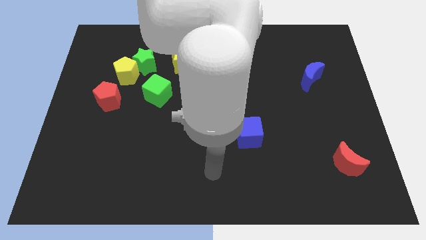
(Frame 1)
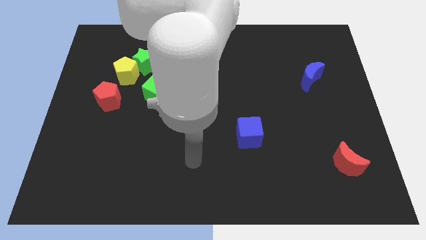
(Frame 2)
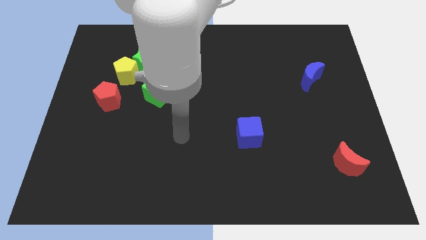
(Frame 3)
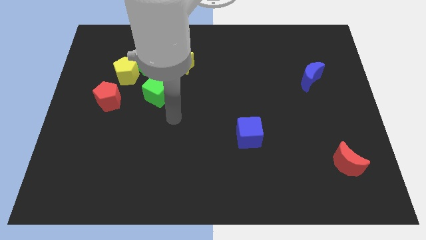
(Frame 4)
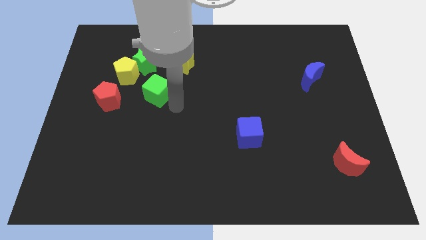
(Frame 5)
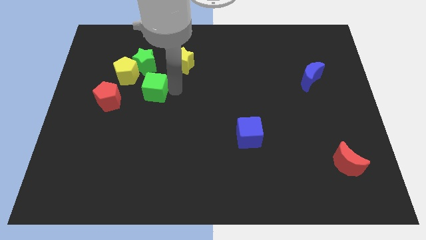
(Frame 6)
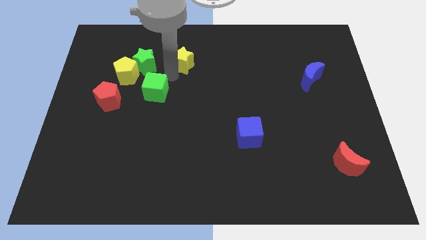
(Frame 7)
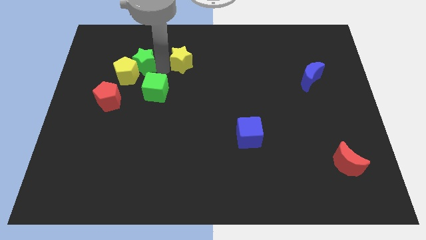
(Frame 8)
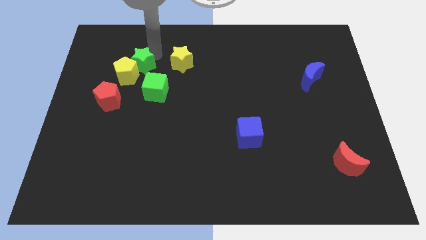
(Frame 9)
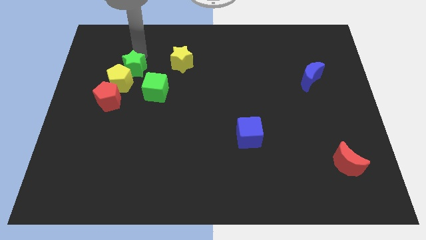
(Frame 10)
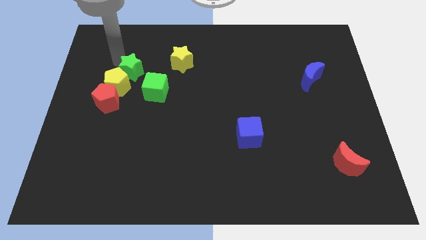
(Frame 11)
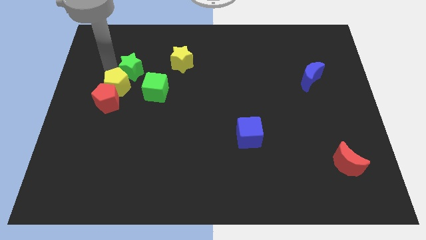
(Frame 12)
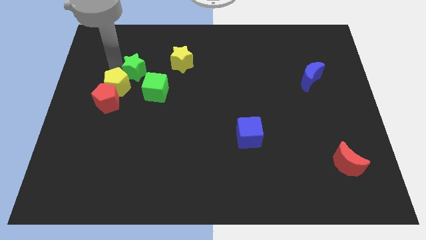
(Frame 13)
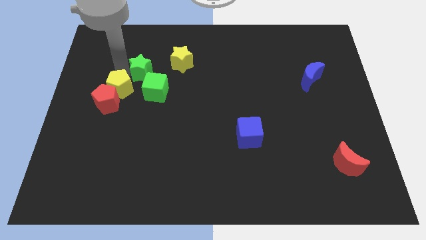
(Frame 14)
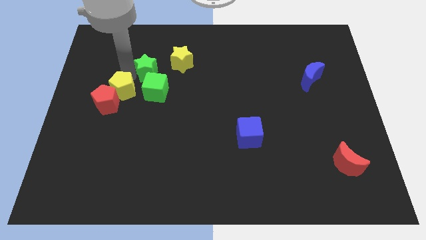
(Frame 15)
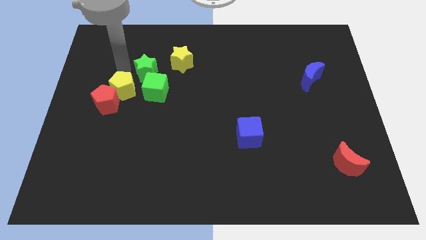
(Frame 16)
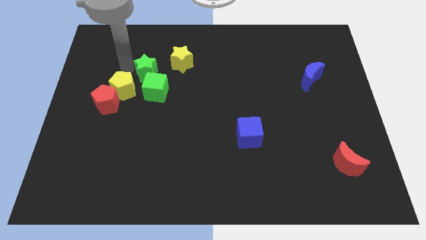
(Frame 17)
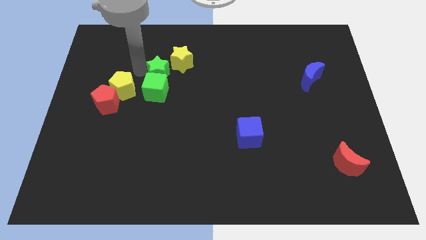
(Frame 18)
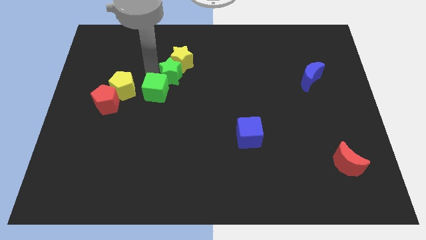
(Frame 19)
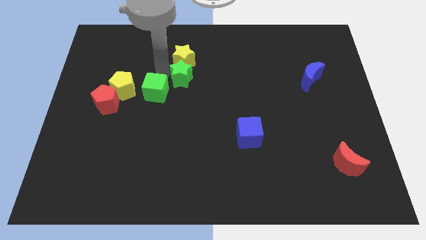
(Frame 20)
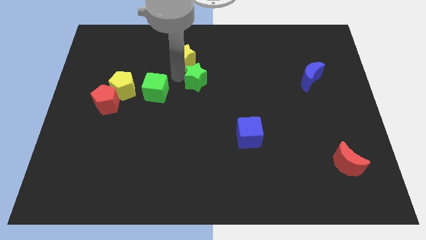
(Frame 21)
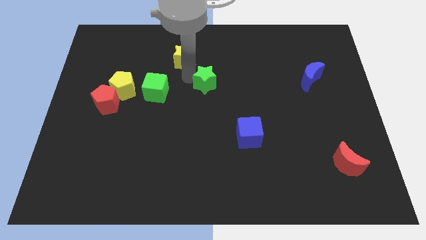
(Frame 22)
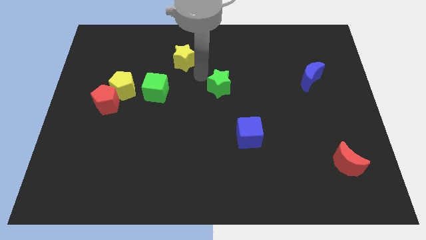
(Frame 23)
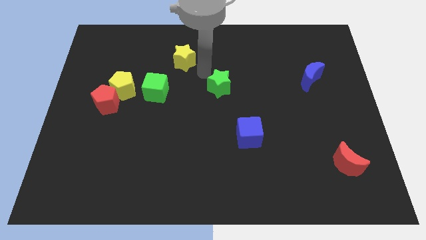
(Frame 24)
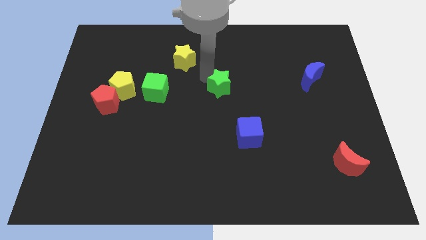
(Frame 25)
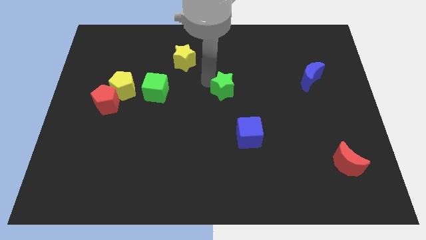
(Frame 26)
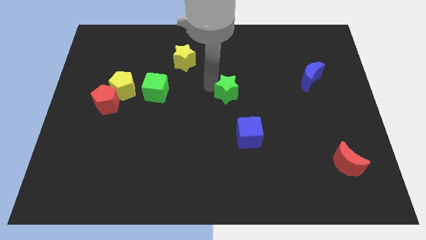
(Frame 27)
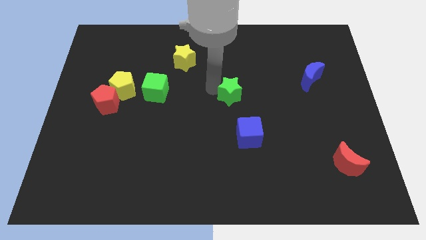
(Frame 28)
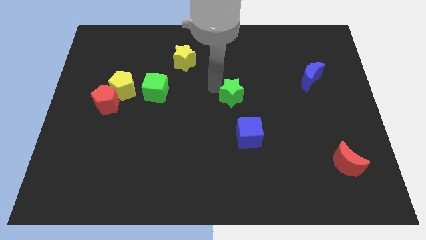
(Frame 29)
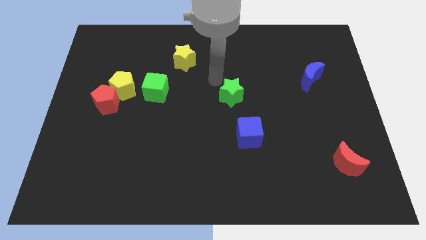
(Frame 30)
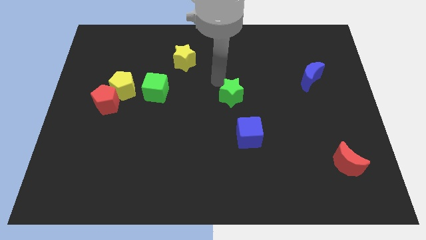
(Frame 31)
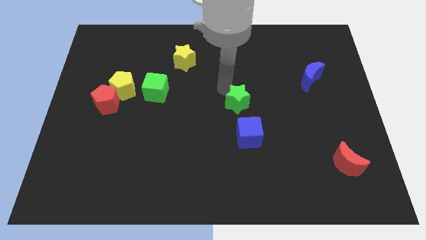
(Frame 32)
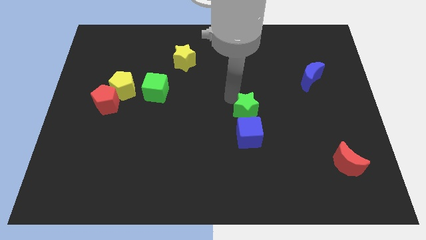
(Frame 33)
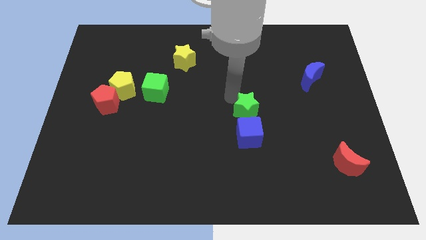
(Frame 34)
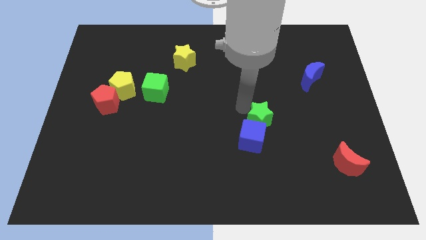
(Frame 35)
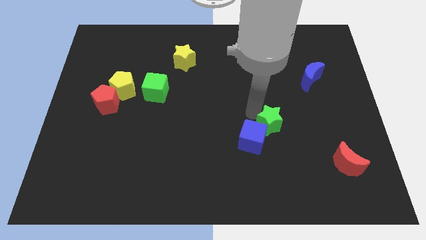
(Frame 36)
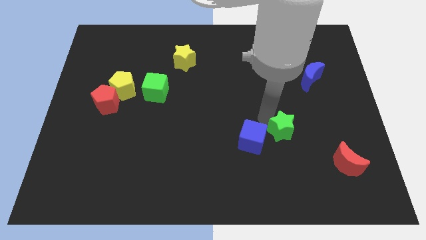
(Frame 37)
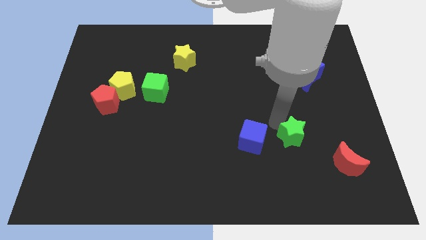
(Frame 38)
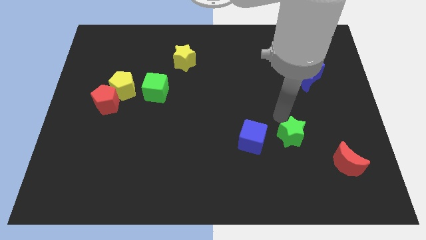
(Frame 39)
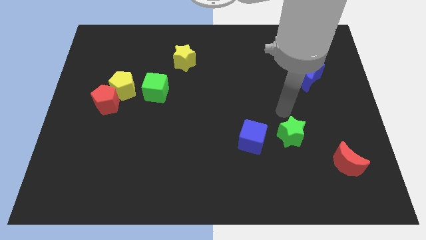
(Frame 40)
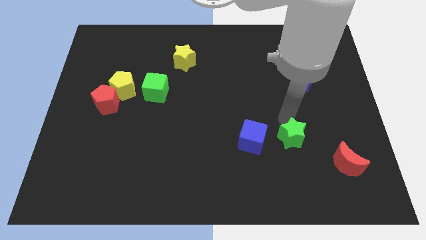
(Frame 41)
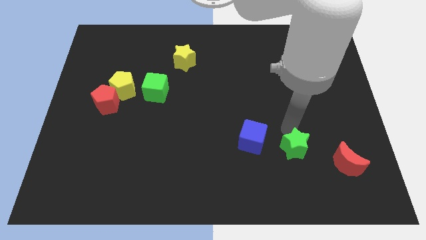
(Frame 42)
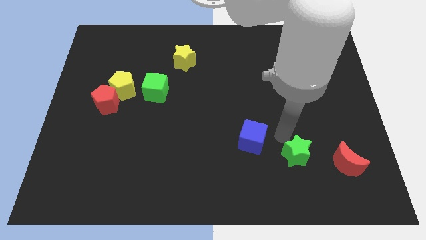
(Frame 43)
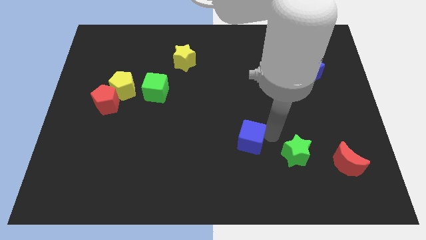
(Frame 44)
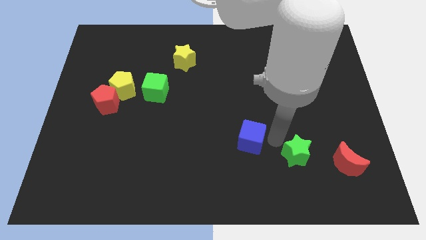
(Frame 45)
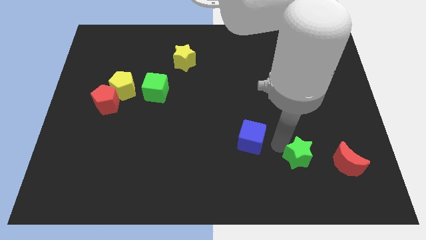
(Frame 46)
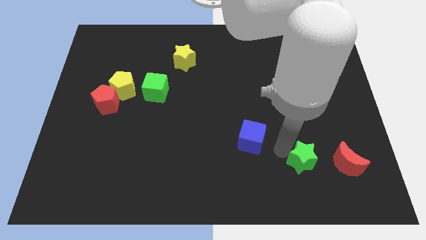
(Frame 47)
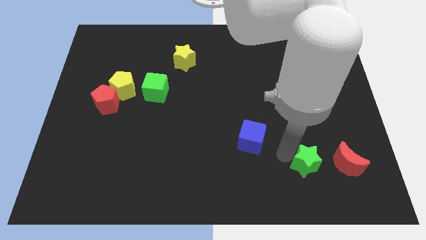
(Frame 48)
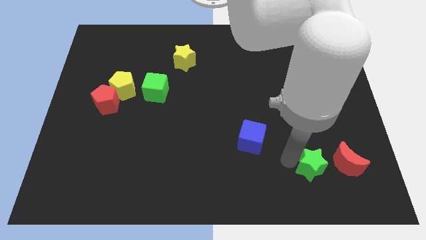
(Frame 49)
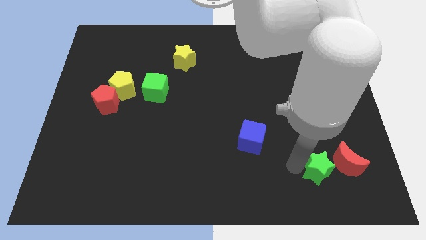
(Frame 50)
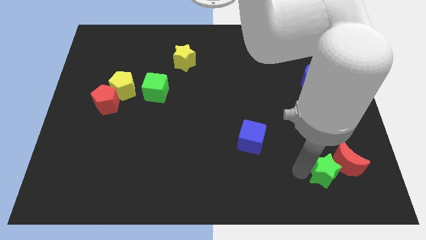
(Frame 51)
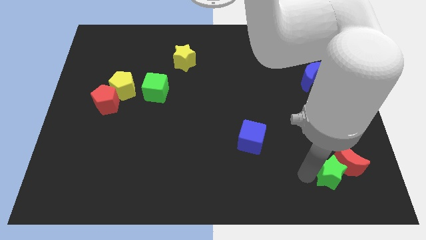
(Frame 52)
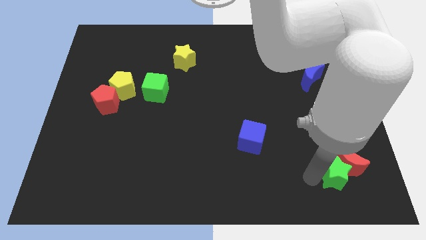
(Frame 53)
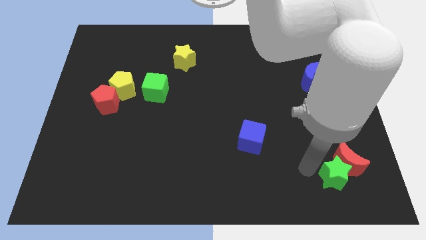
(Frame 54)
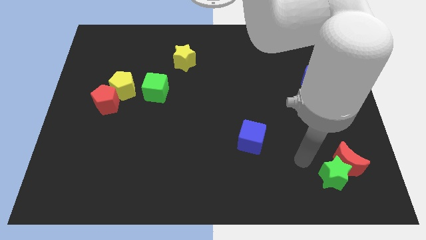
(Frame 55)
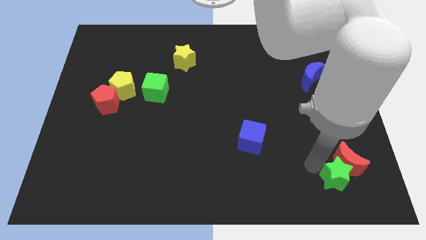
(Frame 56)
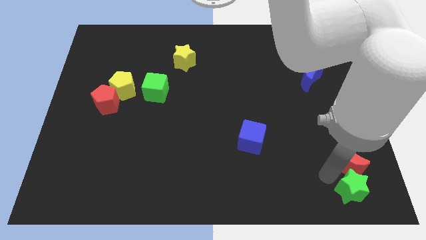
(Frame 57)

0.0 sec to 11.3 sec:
move the green star to the bottom right

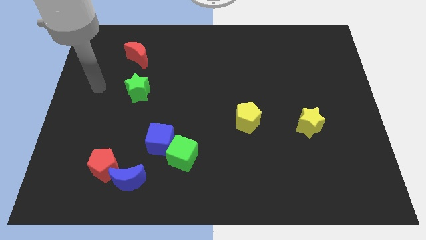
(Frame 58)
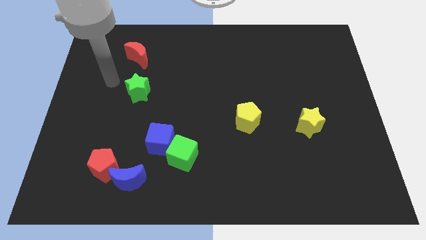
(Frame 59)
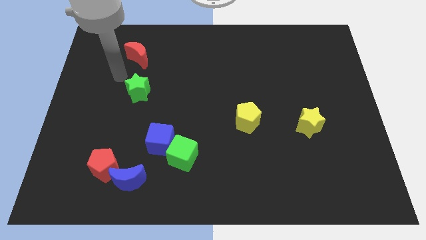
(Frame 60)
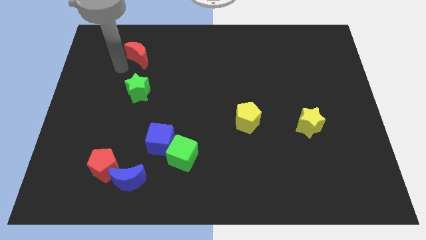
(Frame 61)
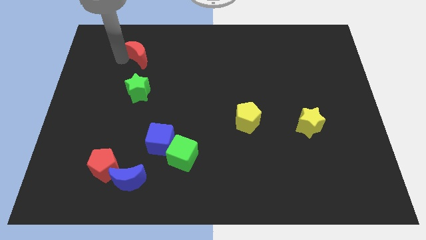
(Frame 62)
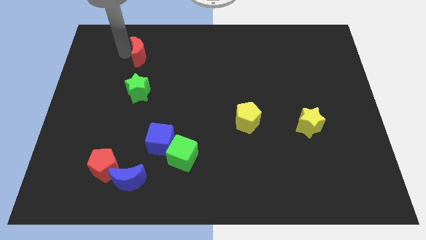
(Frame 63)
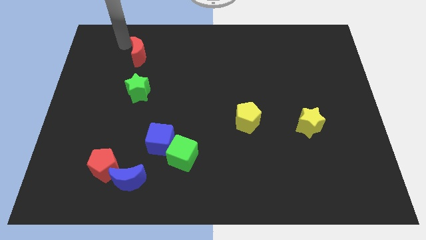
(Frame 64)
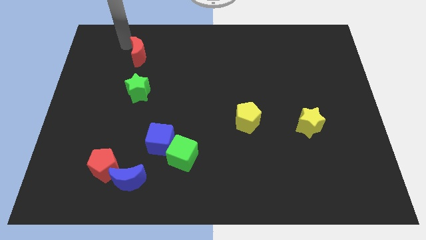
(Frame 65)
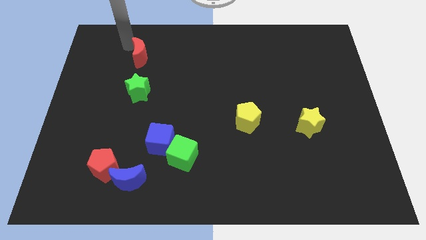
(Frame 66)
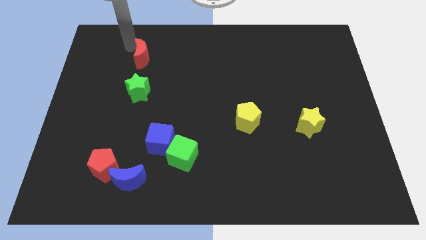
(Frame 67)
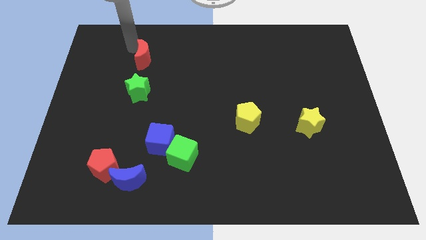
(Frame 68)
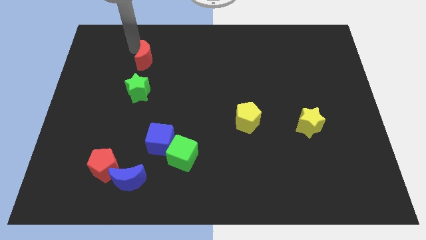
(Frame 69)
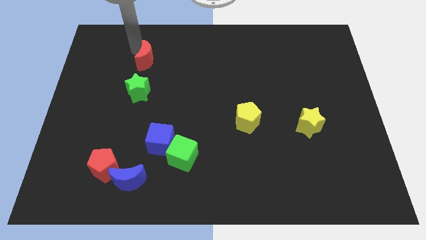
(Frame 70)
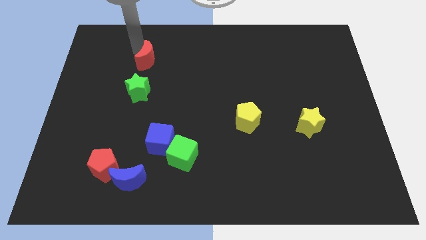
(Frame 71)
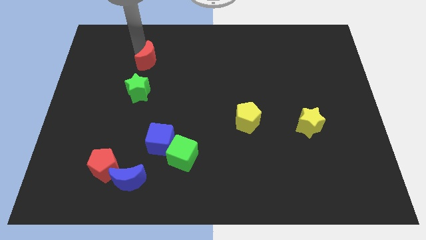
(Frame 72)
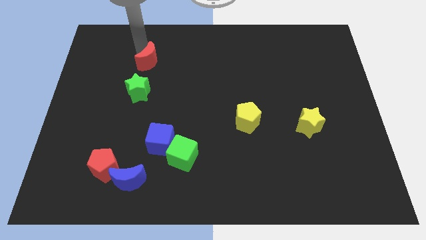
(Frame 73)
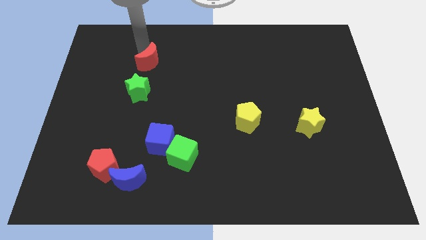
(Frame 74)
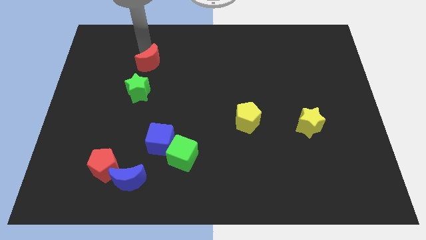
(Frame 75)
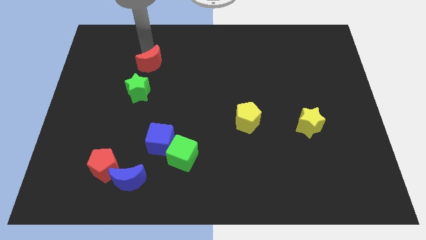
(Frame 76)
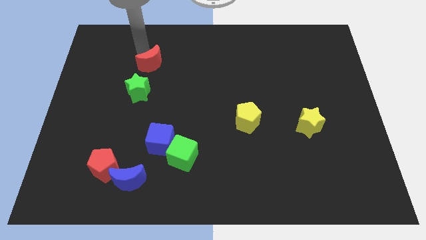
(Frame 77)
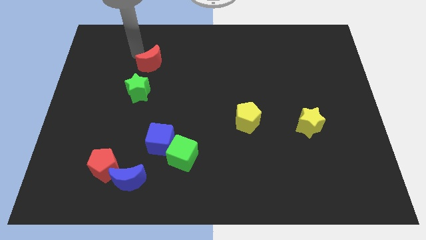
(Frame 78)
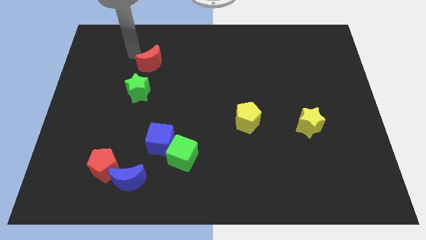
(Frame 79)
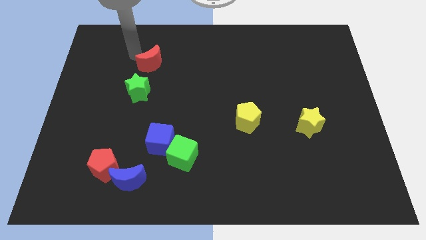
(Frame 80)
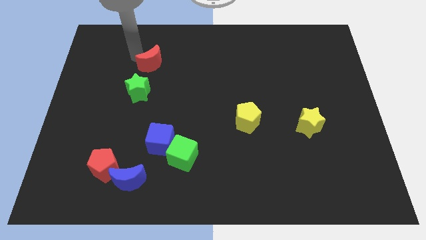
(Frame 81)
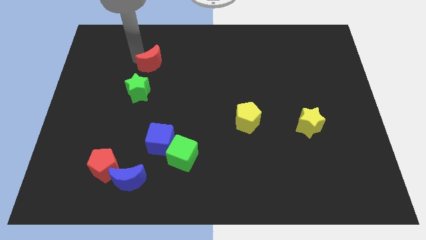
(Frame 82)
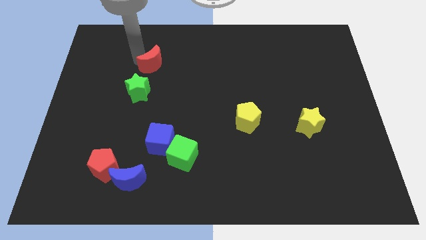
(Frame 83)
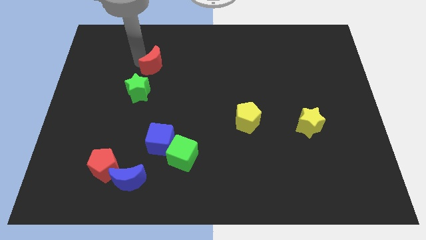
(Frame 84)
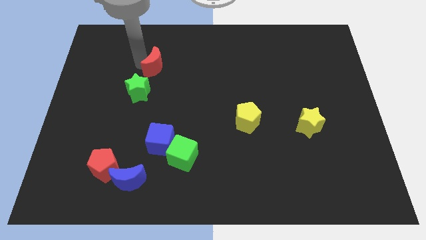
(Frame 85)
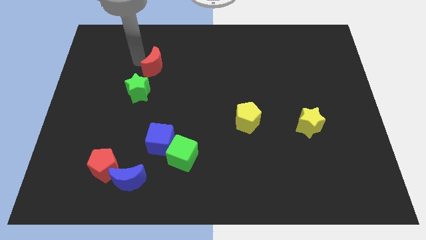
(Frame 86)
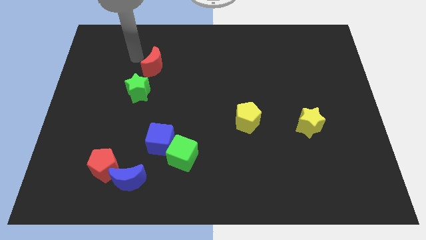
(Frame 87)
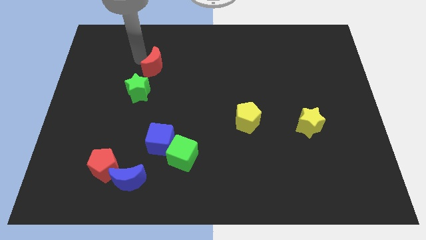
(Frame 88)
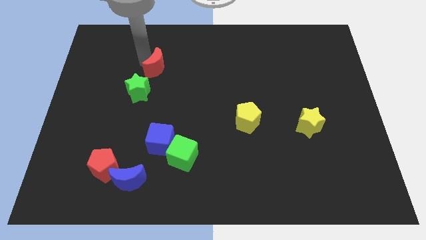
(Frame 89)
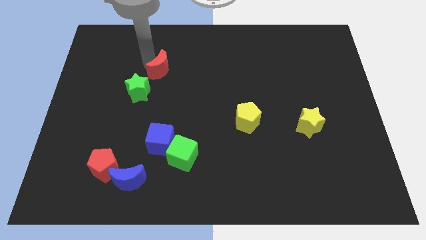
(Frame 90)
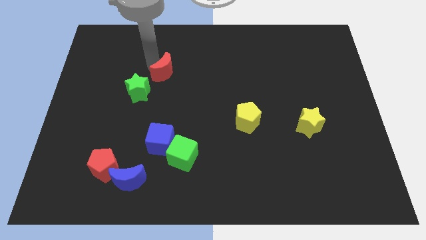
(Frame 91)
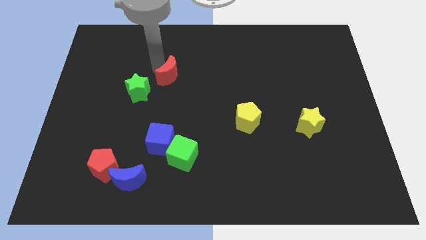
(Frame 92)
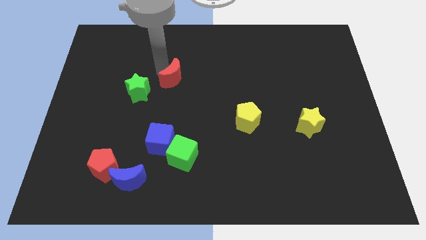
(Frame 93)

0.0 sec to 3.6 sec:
push the red moon to the middle
